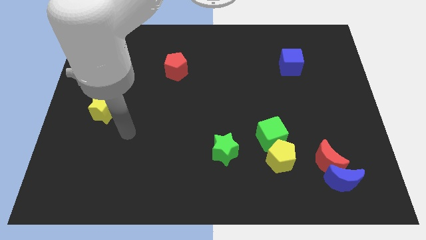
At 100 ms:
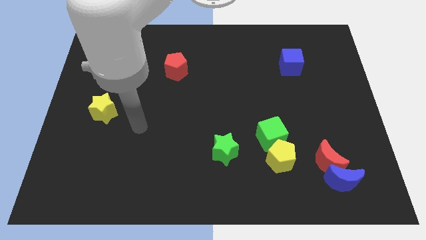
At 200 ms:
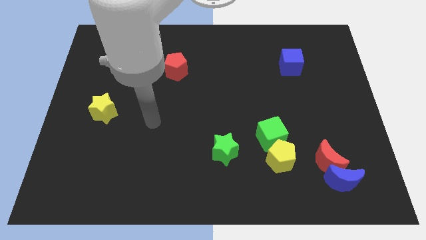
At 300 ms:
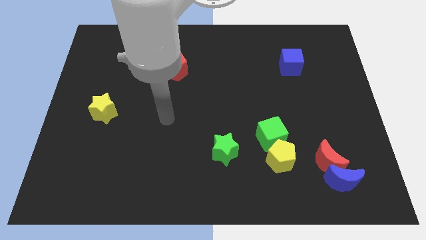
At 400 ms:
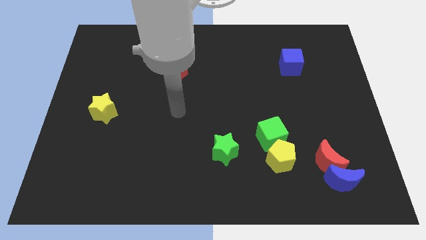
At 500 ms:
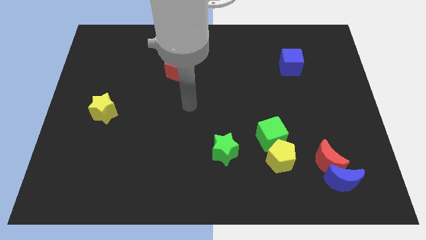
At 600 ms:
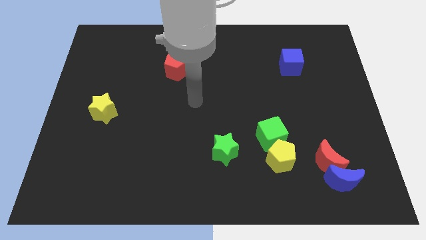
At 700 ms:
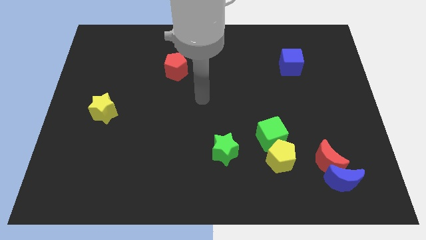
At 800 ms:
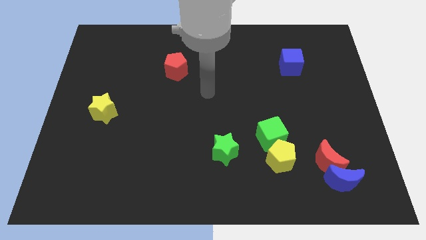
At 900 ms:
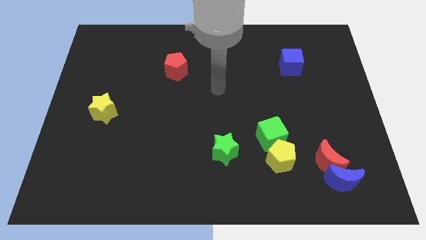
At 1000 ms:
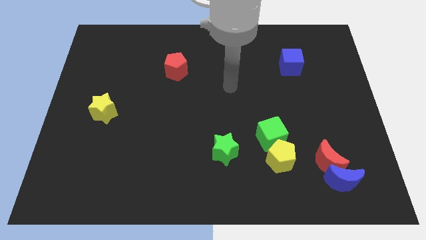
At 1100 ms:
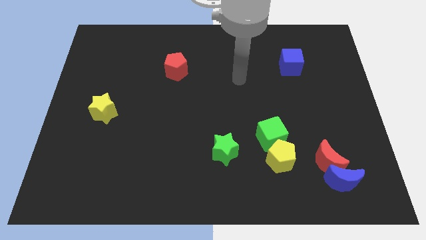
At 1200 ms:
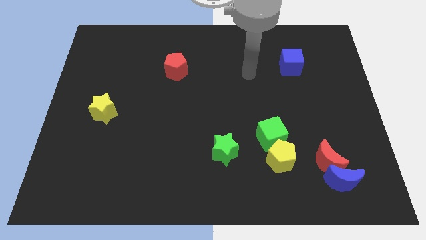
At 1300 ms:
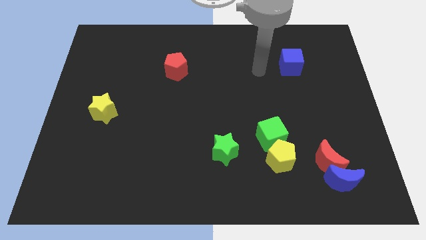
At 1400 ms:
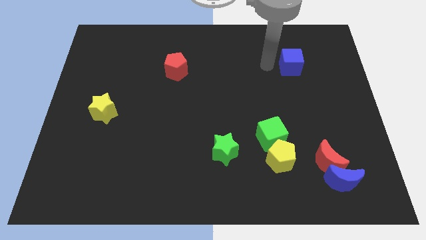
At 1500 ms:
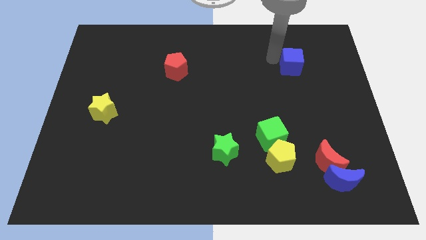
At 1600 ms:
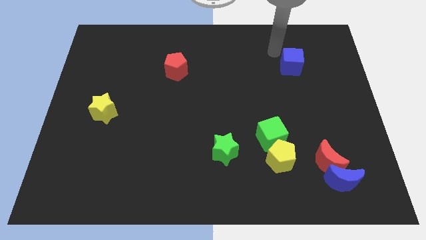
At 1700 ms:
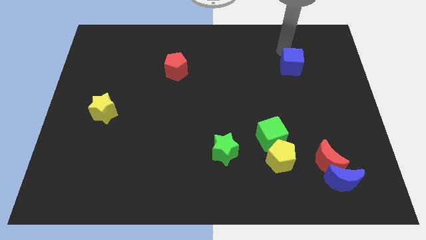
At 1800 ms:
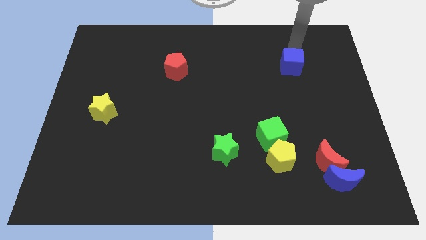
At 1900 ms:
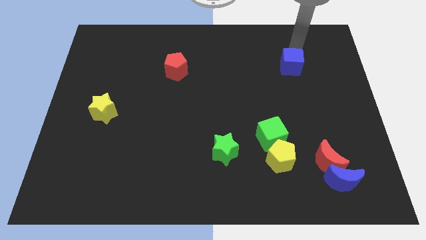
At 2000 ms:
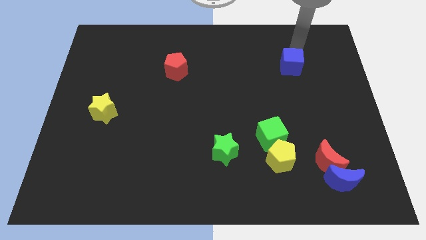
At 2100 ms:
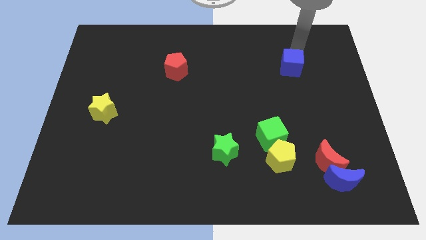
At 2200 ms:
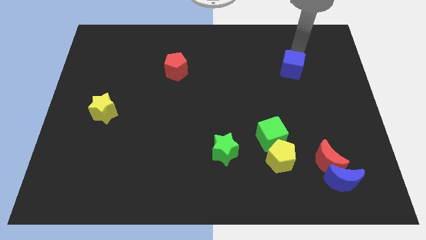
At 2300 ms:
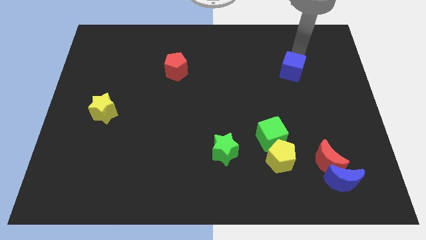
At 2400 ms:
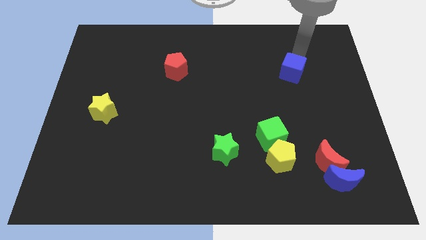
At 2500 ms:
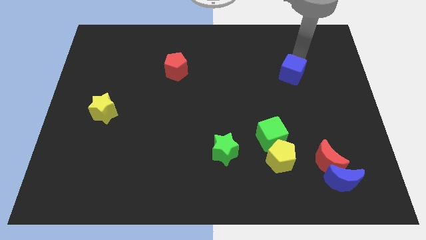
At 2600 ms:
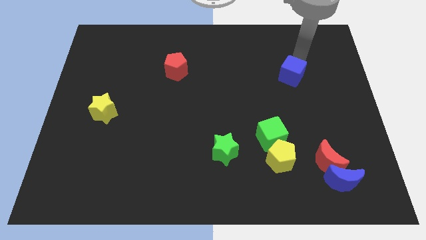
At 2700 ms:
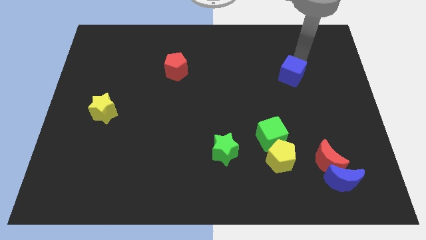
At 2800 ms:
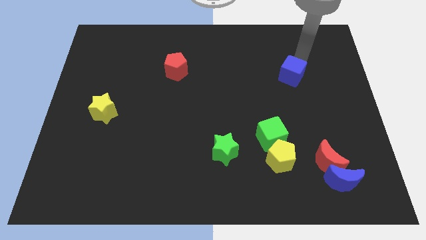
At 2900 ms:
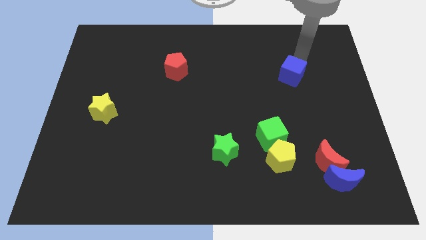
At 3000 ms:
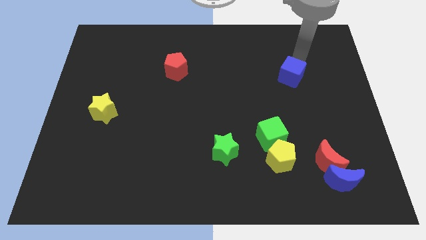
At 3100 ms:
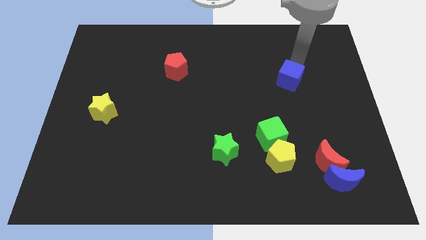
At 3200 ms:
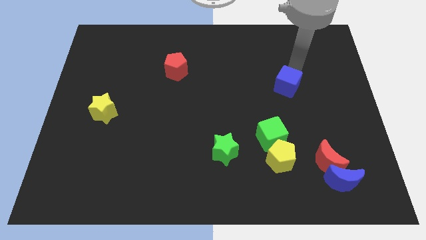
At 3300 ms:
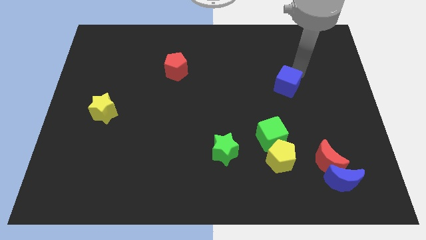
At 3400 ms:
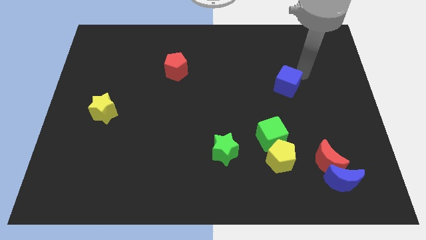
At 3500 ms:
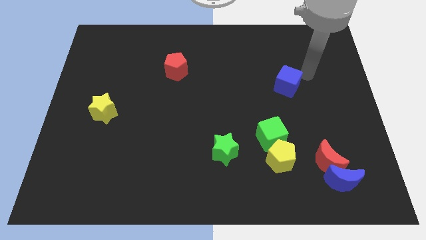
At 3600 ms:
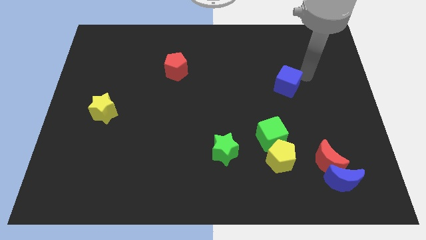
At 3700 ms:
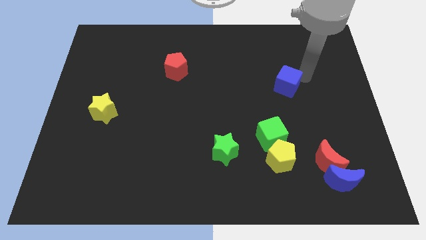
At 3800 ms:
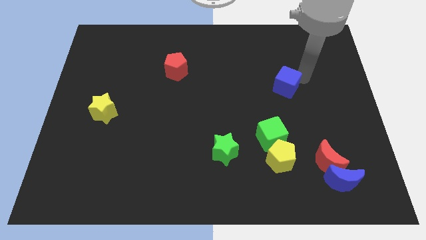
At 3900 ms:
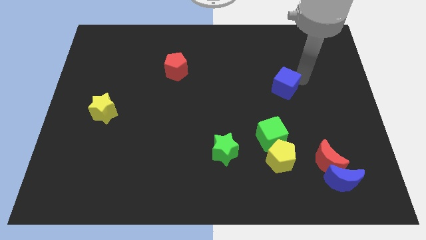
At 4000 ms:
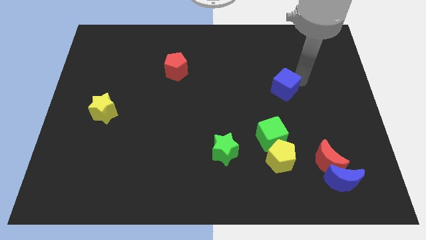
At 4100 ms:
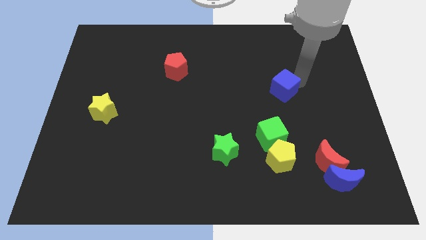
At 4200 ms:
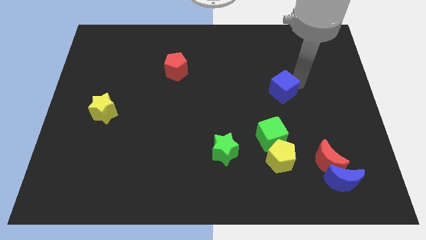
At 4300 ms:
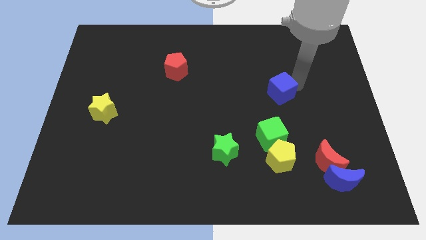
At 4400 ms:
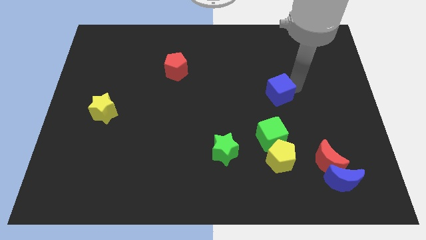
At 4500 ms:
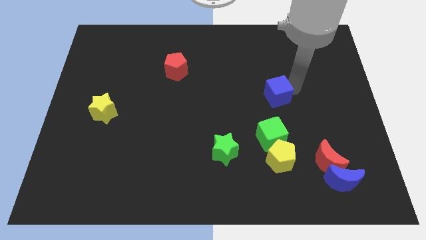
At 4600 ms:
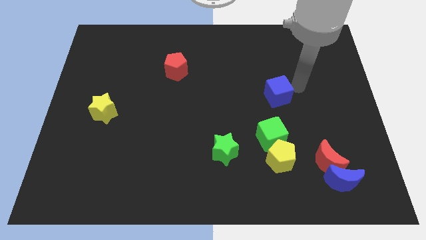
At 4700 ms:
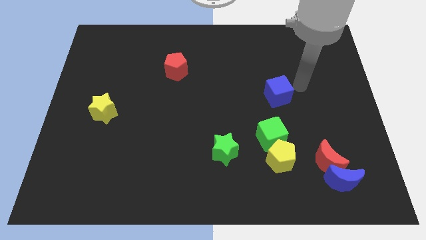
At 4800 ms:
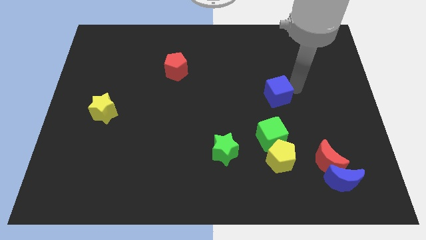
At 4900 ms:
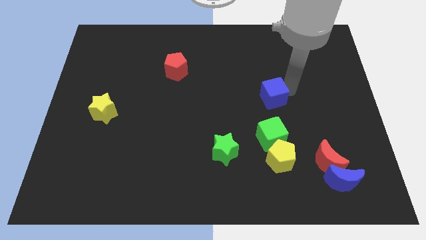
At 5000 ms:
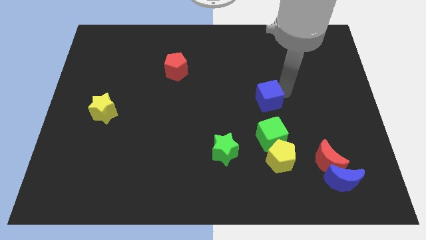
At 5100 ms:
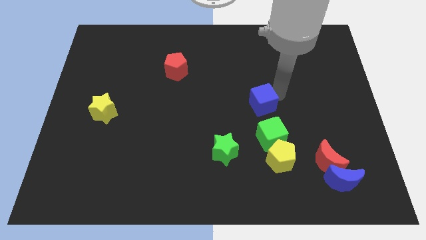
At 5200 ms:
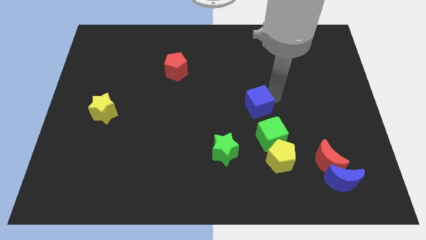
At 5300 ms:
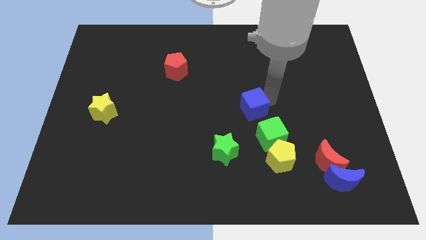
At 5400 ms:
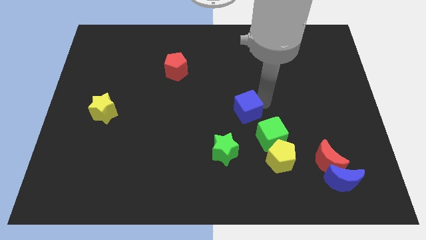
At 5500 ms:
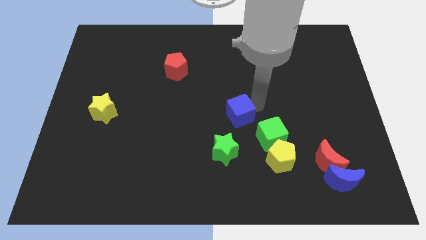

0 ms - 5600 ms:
push the blue cube diagonally down and left

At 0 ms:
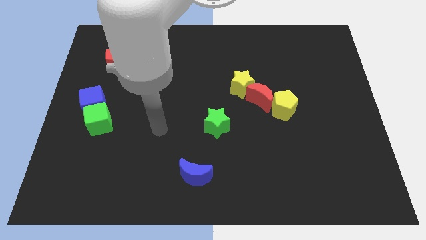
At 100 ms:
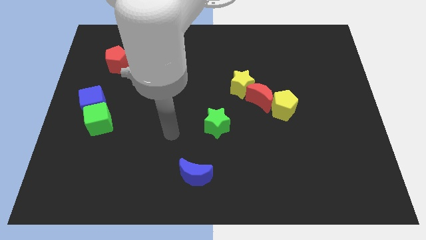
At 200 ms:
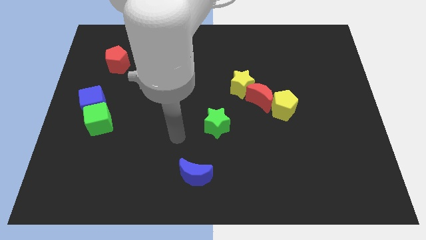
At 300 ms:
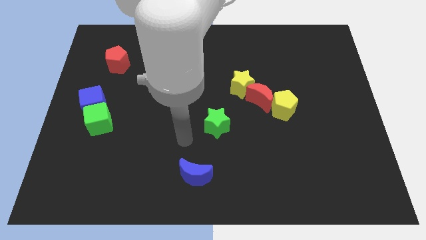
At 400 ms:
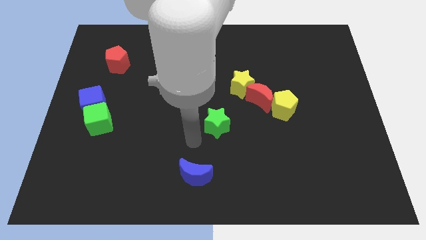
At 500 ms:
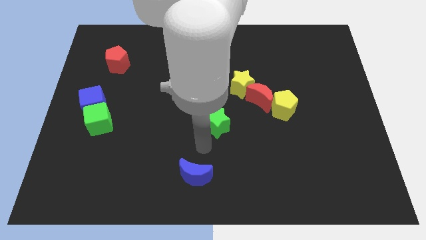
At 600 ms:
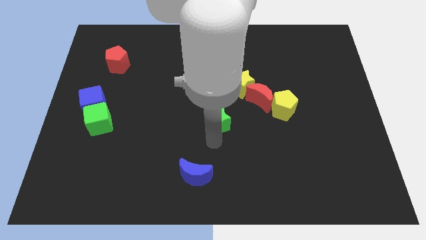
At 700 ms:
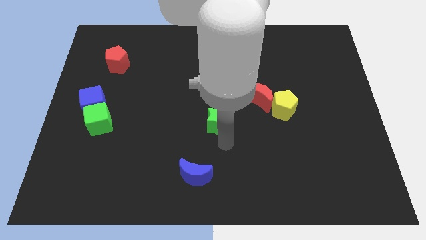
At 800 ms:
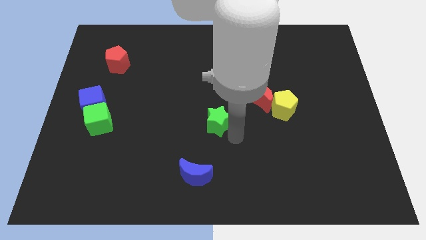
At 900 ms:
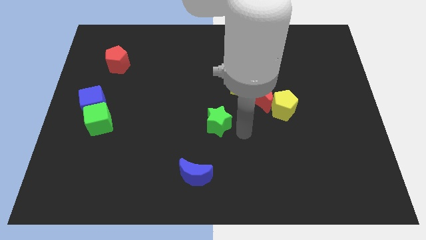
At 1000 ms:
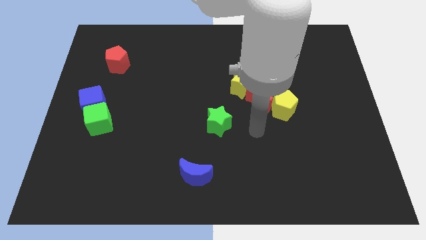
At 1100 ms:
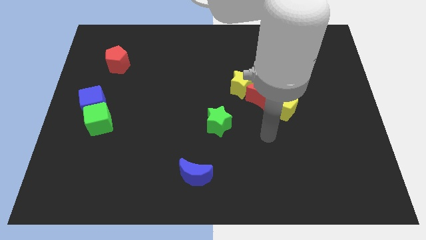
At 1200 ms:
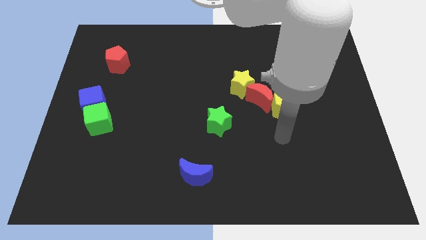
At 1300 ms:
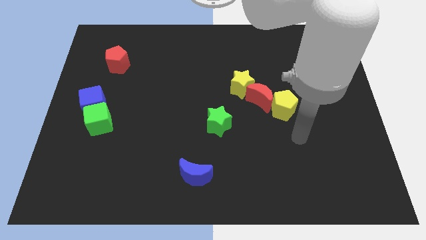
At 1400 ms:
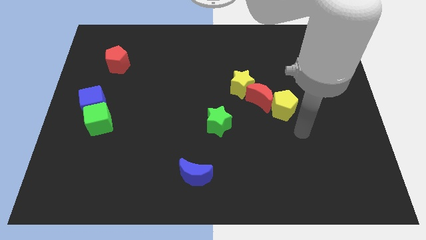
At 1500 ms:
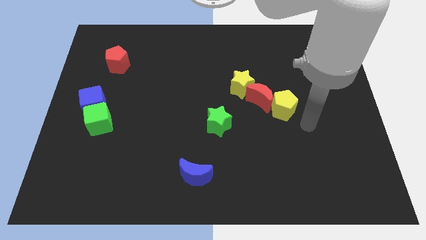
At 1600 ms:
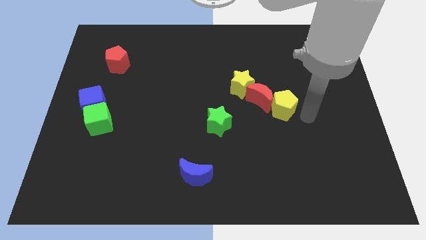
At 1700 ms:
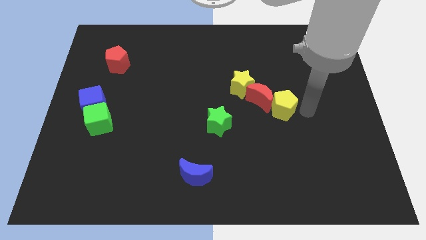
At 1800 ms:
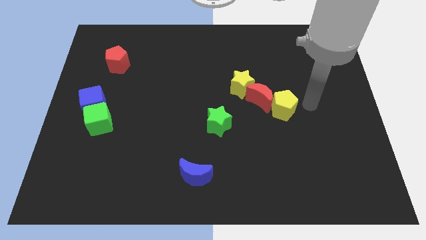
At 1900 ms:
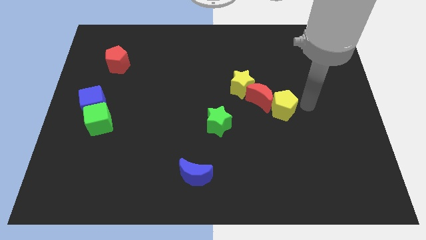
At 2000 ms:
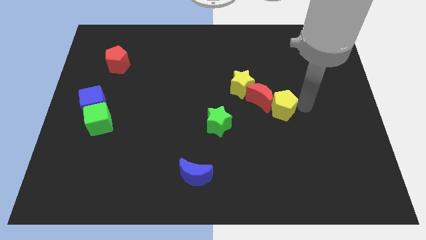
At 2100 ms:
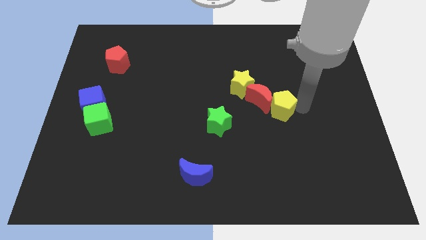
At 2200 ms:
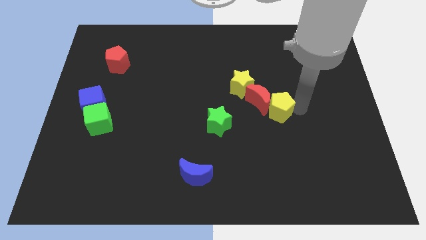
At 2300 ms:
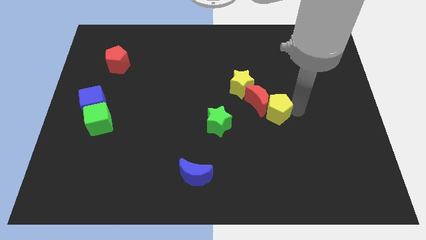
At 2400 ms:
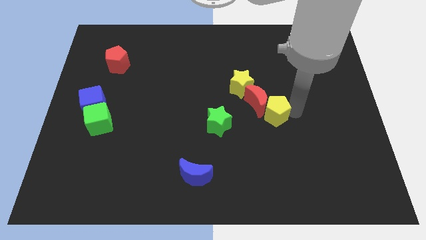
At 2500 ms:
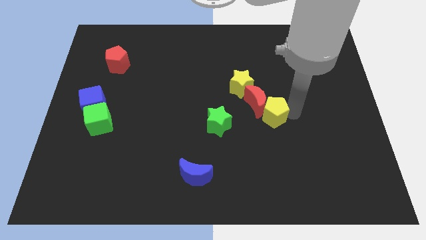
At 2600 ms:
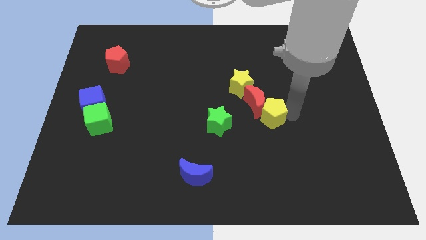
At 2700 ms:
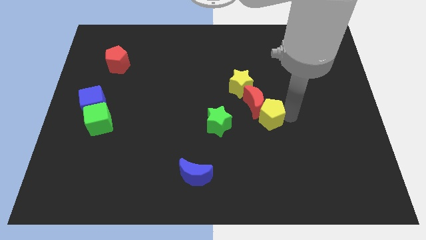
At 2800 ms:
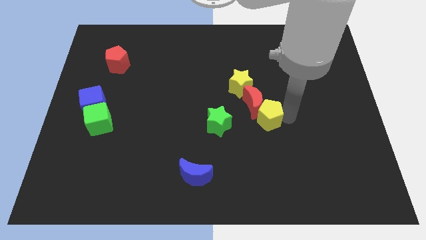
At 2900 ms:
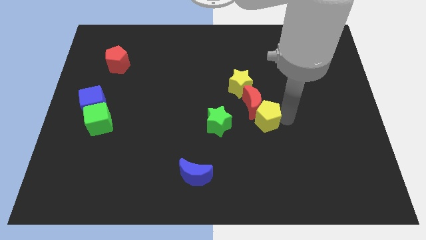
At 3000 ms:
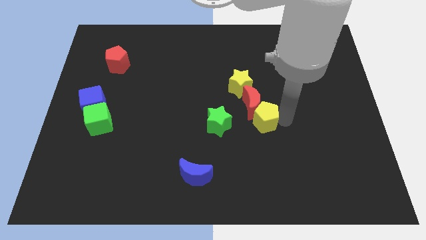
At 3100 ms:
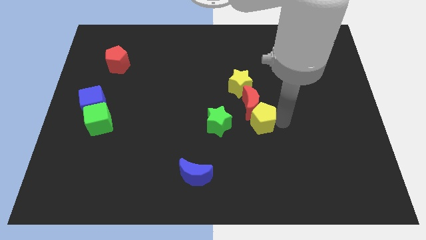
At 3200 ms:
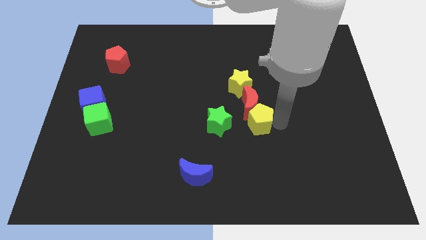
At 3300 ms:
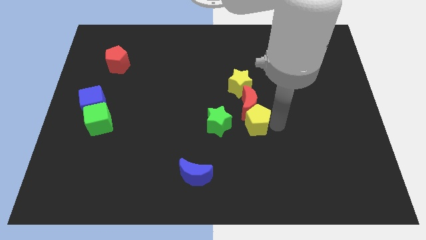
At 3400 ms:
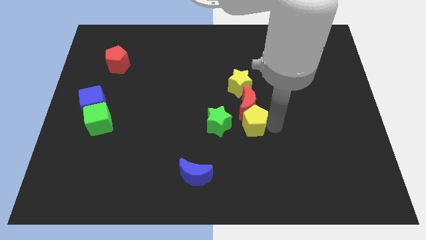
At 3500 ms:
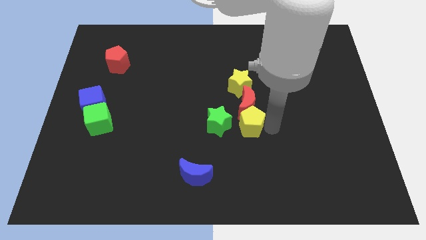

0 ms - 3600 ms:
slightly push the yellow pentagon to the left
